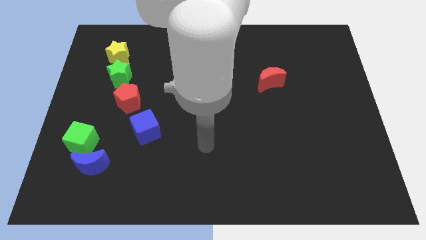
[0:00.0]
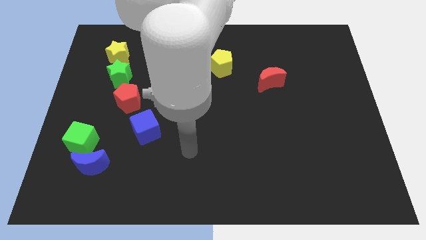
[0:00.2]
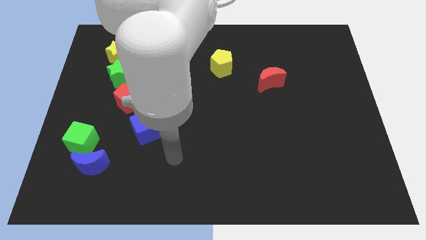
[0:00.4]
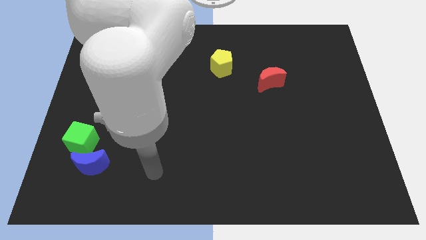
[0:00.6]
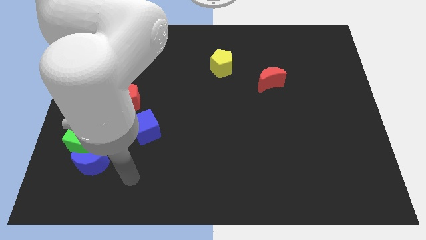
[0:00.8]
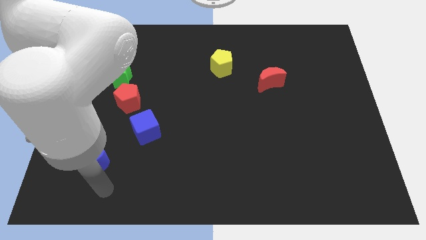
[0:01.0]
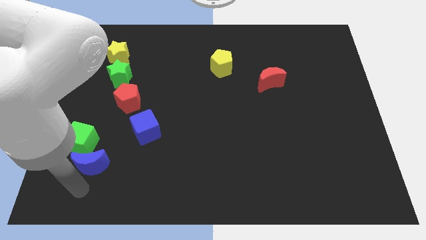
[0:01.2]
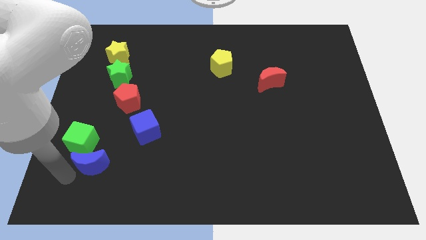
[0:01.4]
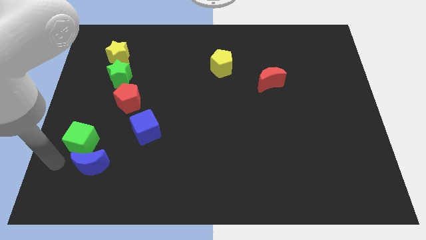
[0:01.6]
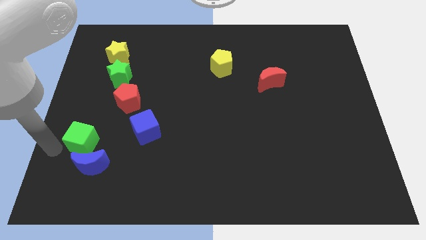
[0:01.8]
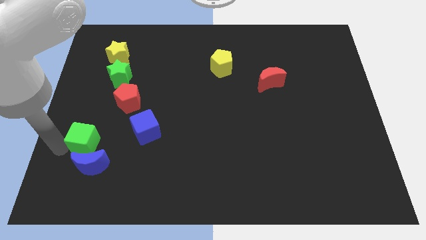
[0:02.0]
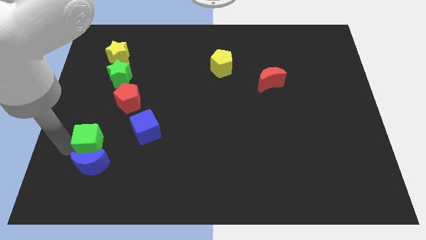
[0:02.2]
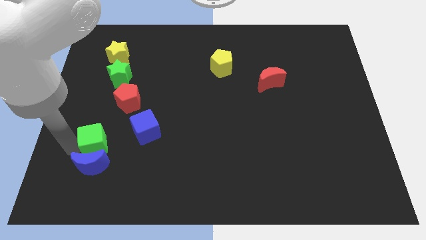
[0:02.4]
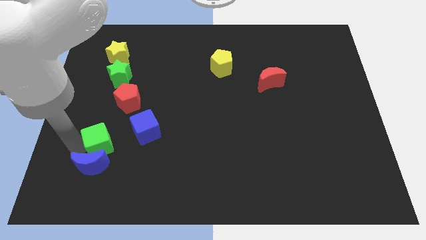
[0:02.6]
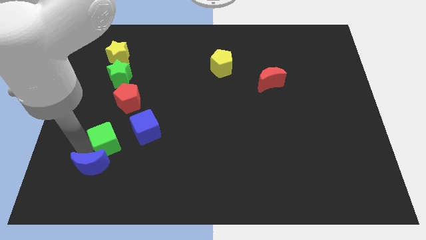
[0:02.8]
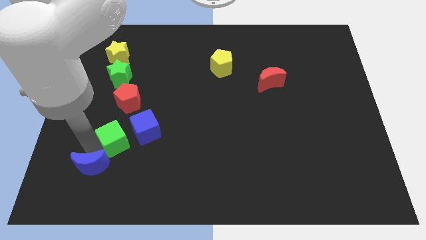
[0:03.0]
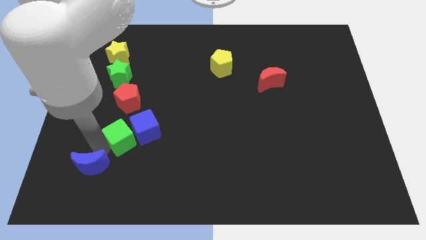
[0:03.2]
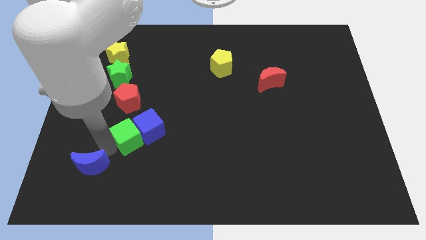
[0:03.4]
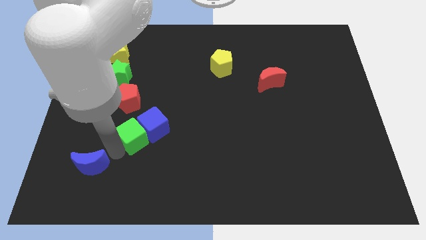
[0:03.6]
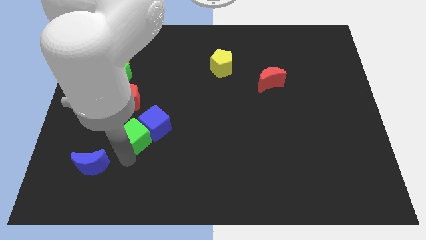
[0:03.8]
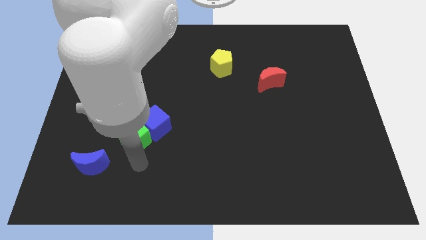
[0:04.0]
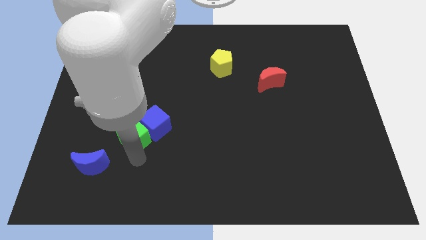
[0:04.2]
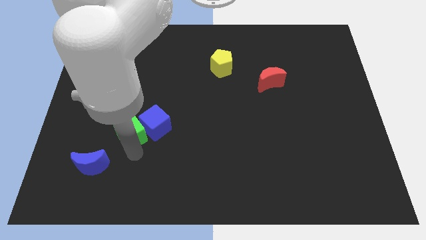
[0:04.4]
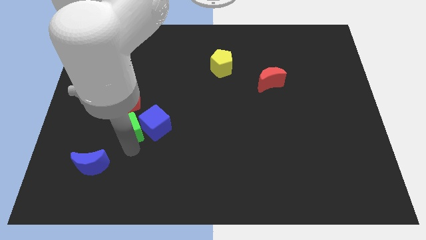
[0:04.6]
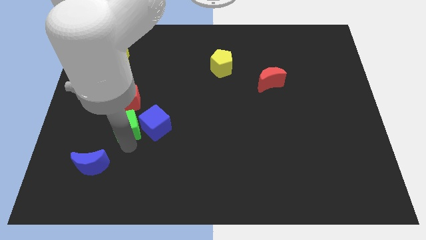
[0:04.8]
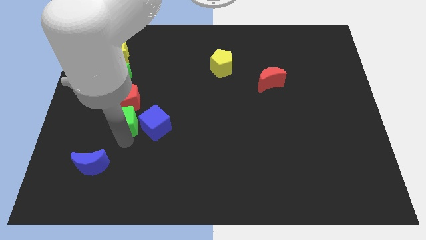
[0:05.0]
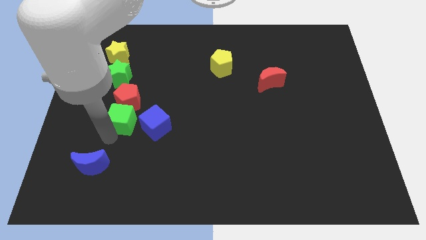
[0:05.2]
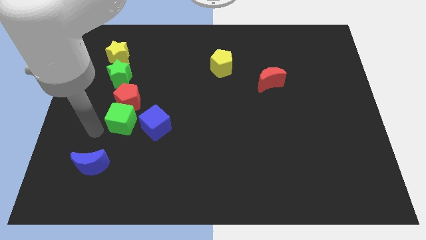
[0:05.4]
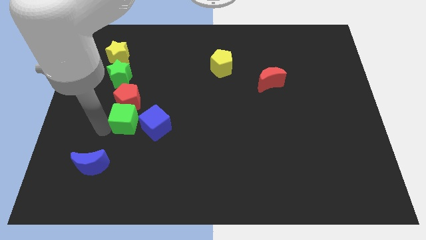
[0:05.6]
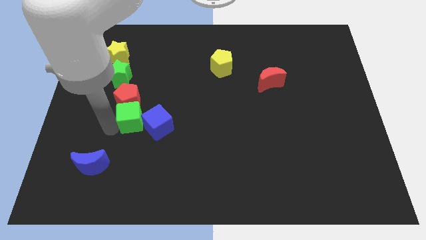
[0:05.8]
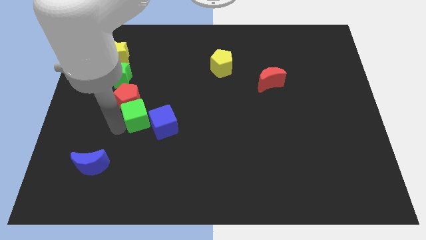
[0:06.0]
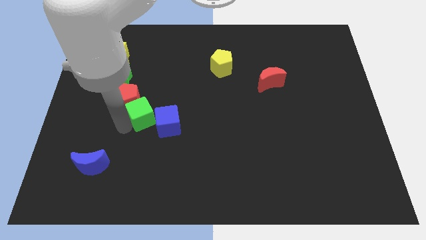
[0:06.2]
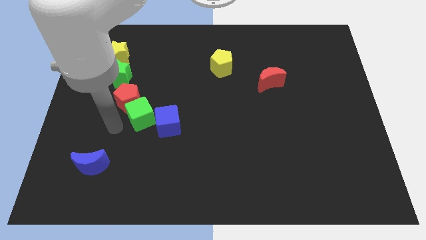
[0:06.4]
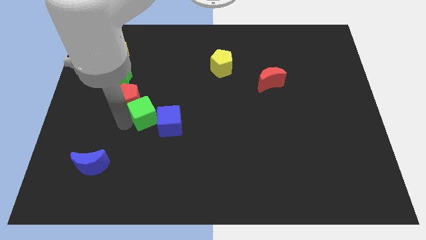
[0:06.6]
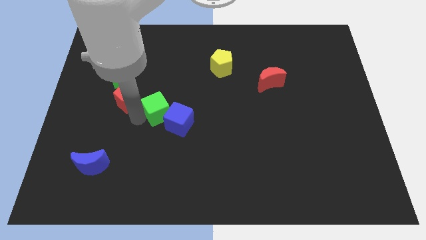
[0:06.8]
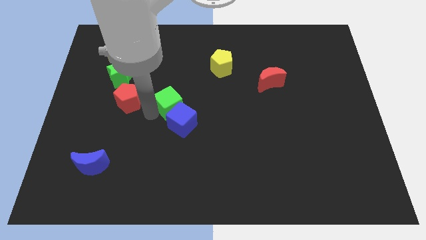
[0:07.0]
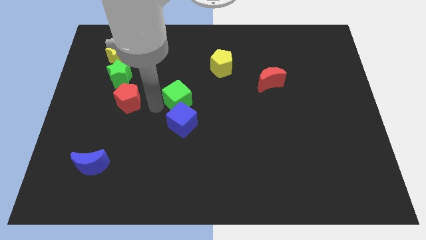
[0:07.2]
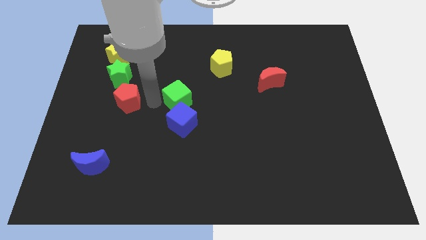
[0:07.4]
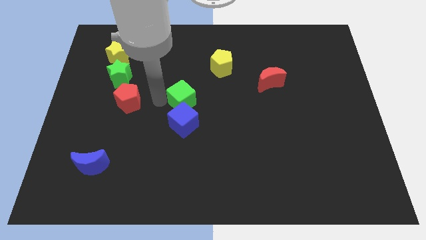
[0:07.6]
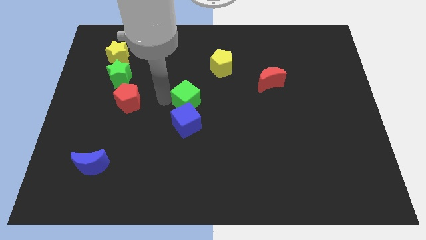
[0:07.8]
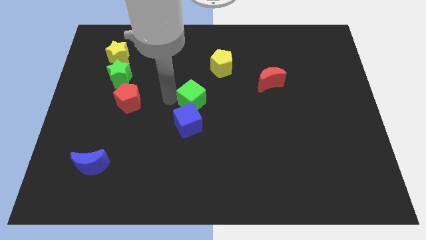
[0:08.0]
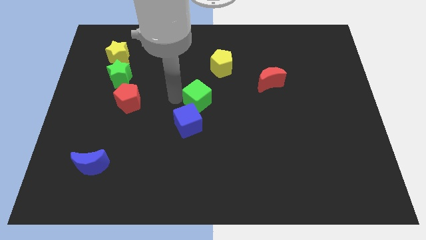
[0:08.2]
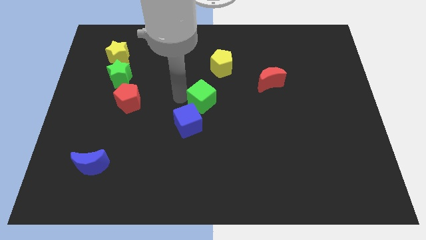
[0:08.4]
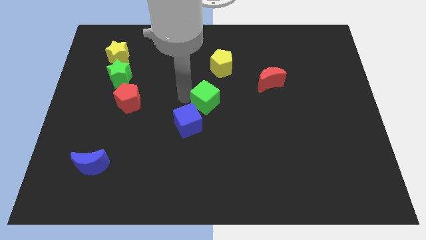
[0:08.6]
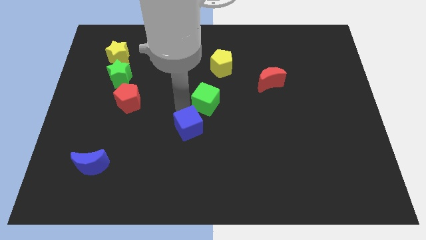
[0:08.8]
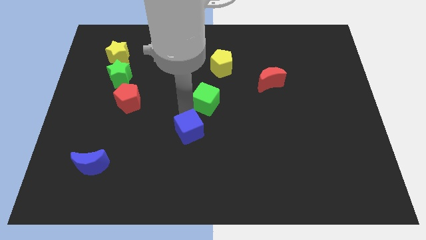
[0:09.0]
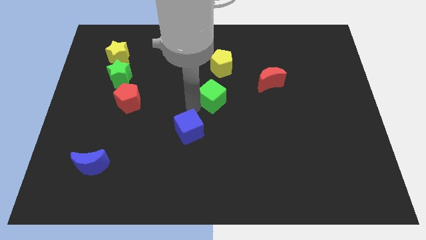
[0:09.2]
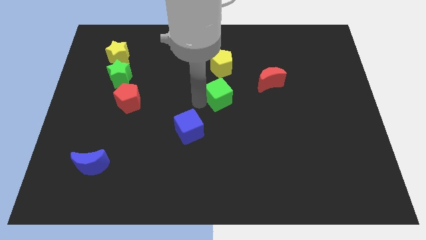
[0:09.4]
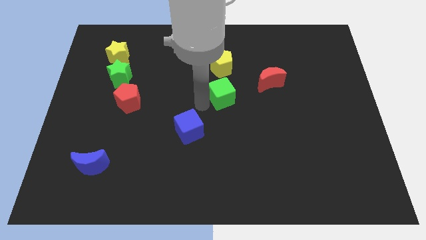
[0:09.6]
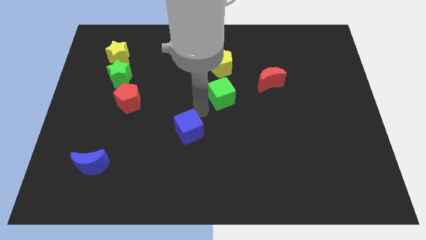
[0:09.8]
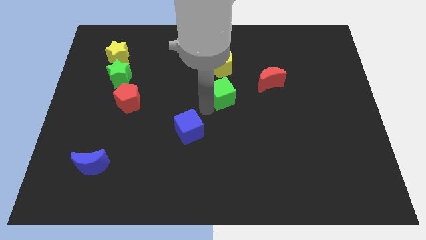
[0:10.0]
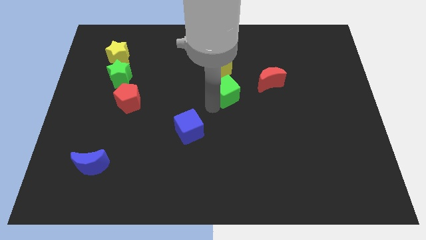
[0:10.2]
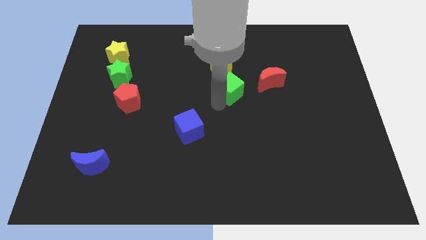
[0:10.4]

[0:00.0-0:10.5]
move the green cube to the bottom right of the yellow pentagon

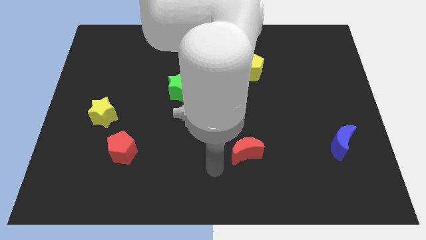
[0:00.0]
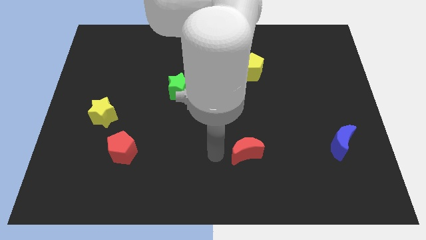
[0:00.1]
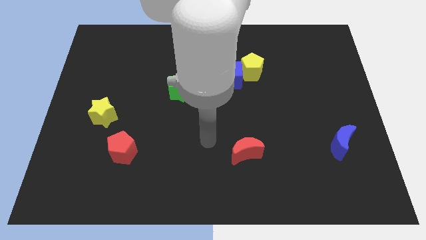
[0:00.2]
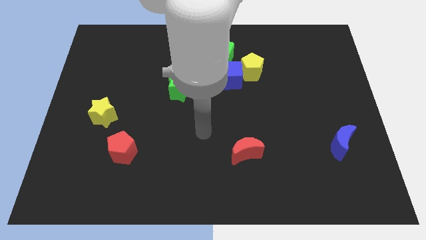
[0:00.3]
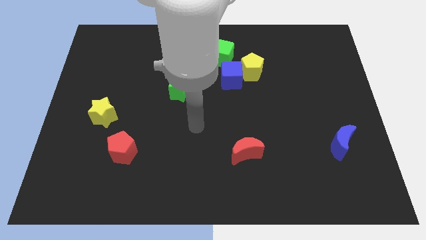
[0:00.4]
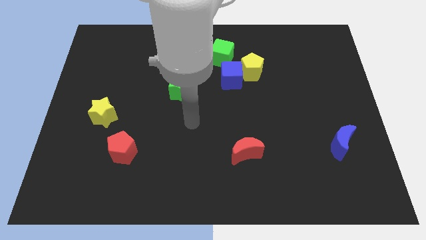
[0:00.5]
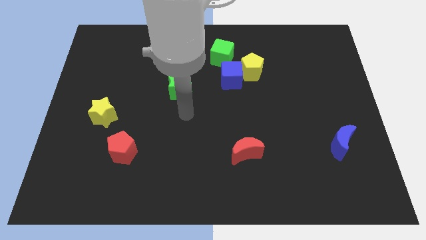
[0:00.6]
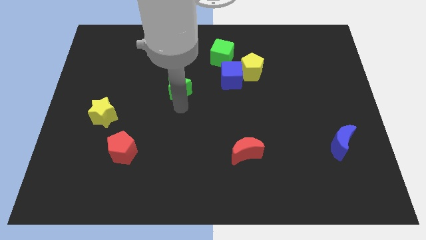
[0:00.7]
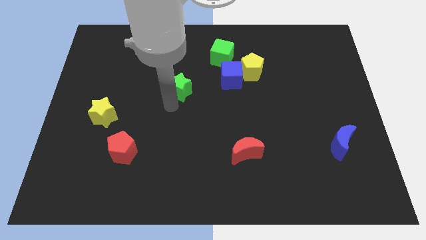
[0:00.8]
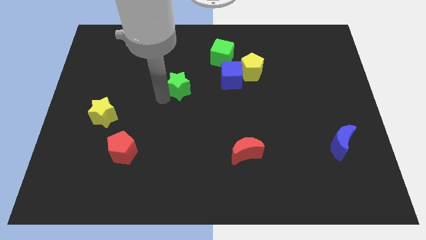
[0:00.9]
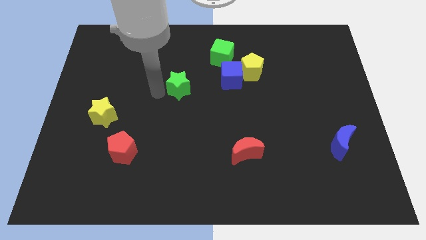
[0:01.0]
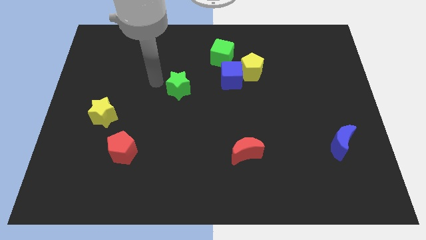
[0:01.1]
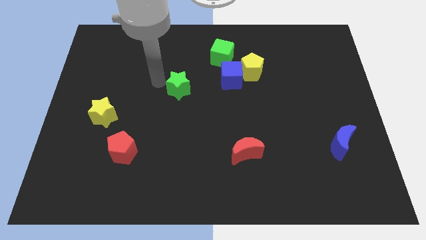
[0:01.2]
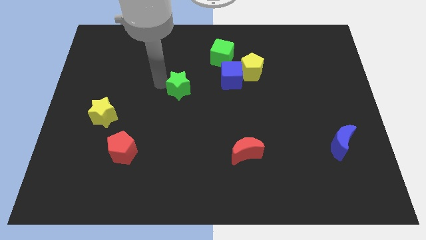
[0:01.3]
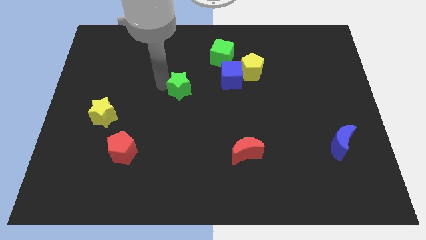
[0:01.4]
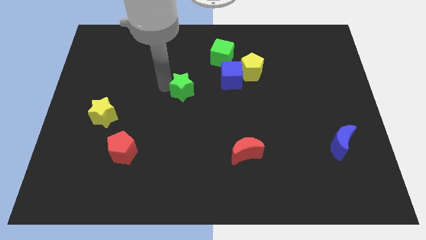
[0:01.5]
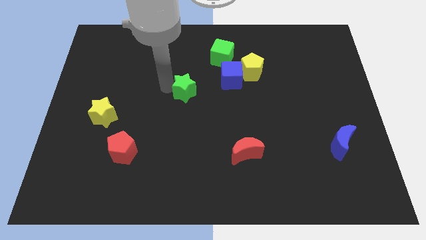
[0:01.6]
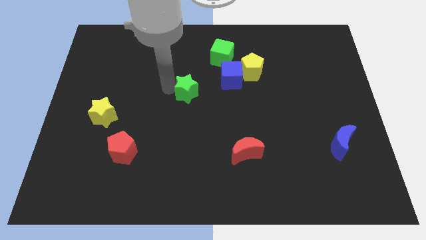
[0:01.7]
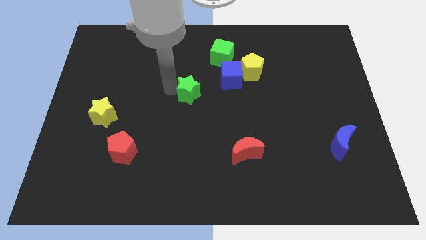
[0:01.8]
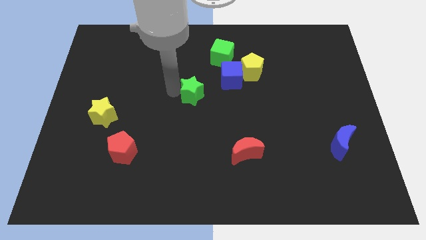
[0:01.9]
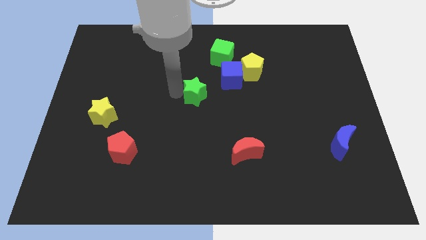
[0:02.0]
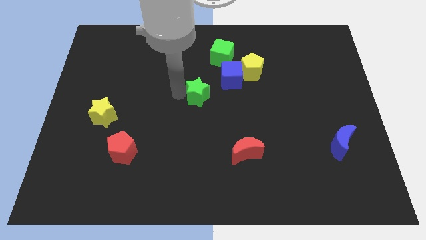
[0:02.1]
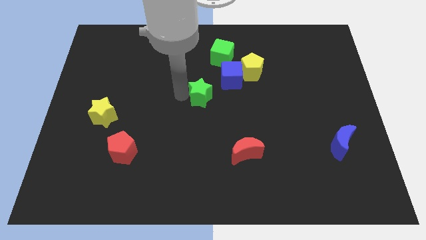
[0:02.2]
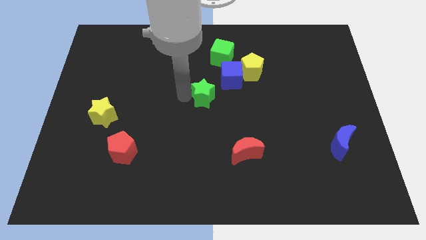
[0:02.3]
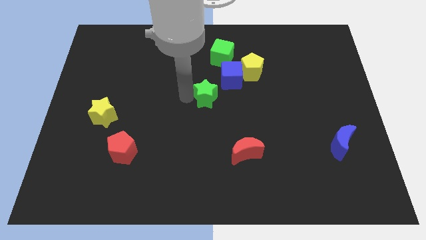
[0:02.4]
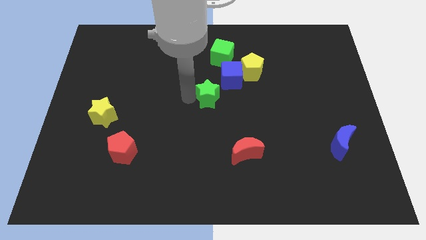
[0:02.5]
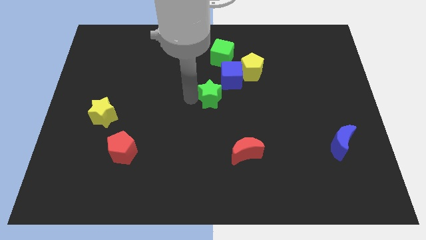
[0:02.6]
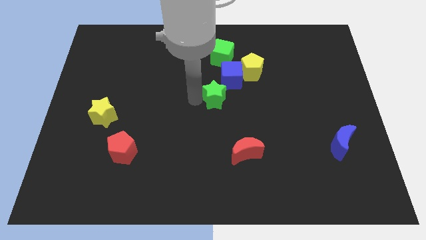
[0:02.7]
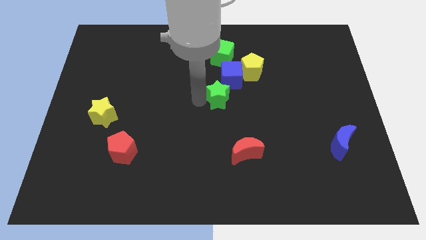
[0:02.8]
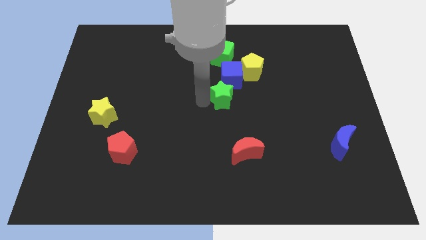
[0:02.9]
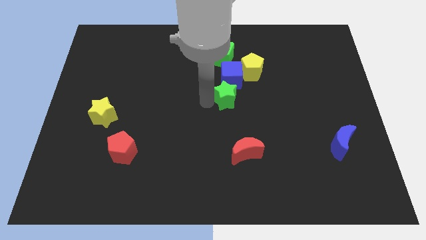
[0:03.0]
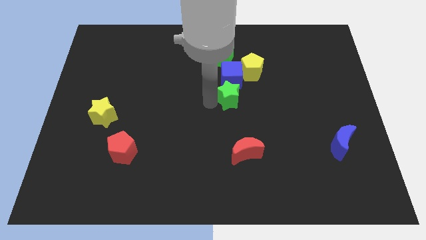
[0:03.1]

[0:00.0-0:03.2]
push the green star to the bottom right of the blue cube
